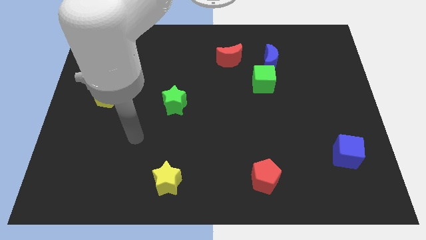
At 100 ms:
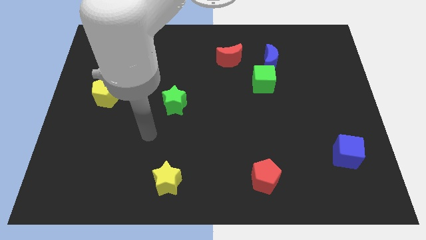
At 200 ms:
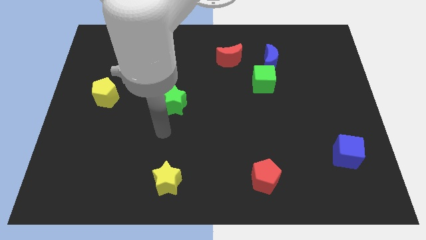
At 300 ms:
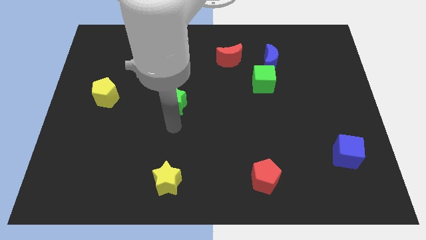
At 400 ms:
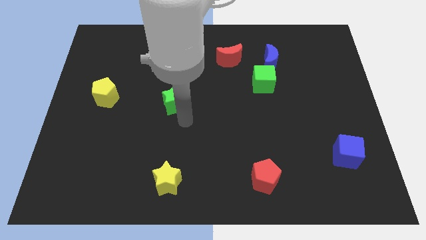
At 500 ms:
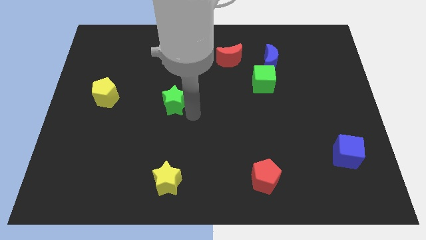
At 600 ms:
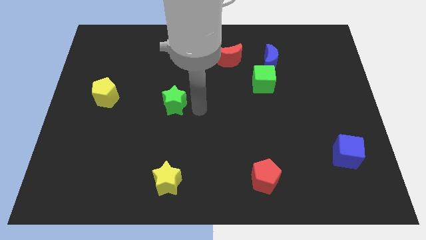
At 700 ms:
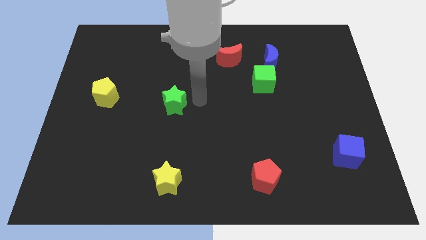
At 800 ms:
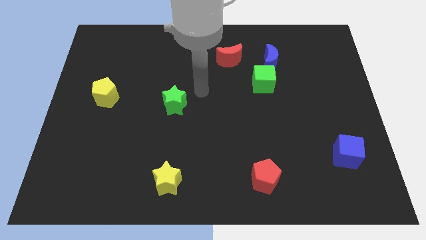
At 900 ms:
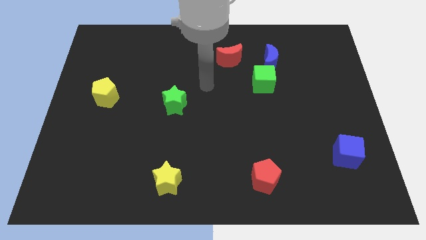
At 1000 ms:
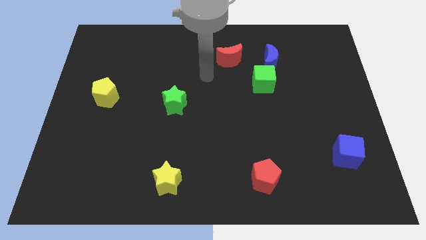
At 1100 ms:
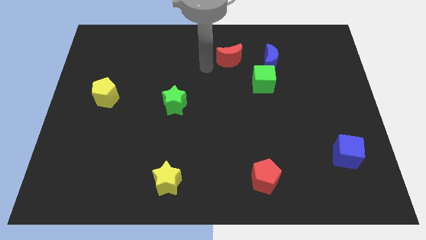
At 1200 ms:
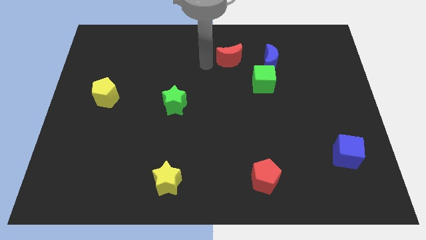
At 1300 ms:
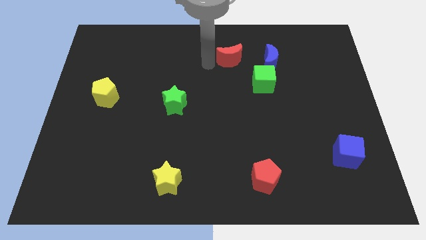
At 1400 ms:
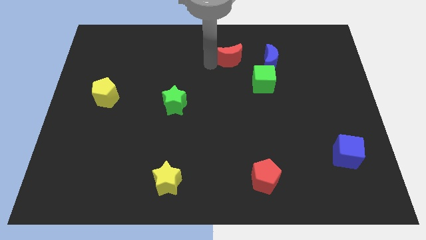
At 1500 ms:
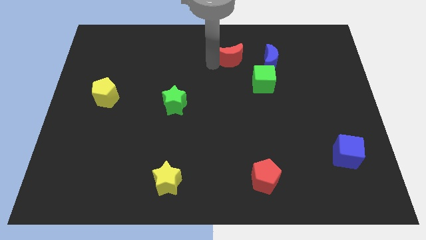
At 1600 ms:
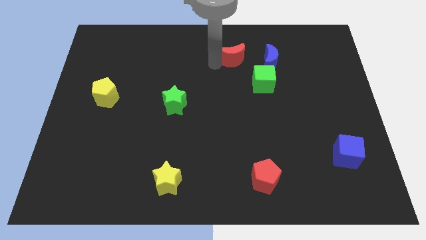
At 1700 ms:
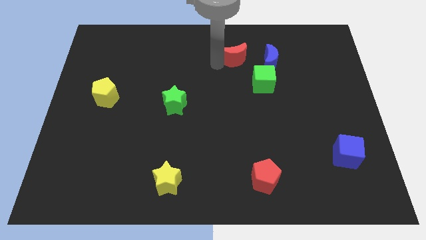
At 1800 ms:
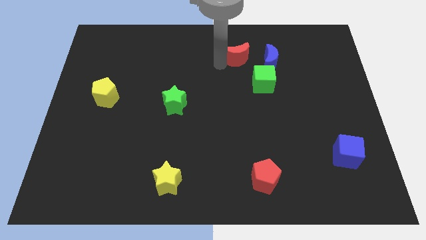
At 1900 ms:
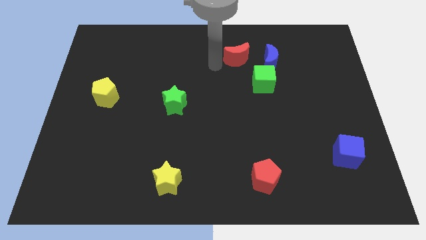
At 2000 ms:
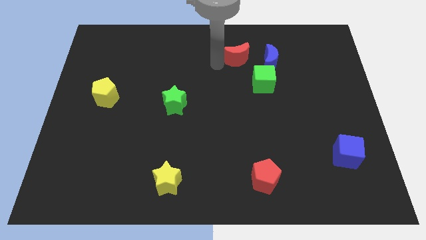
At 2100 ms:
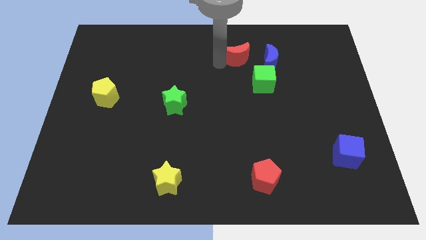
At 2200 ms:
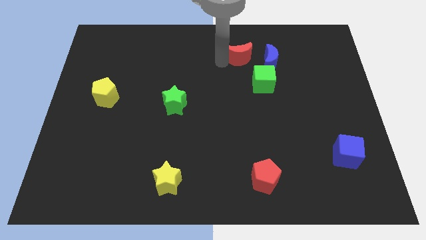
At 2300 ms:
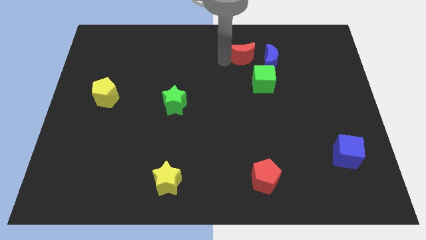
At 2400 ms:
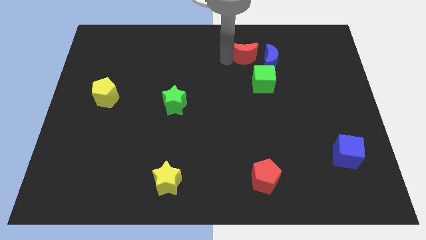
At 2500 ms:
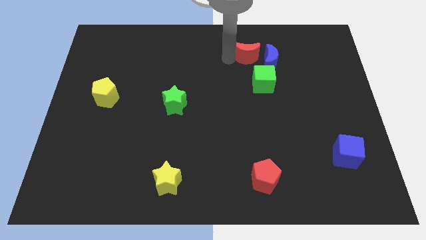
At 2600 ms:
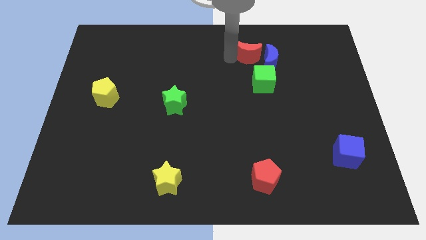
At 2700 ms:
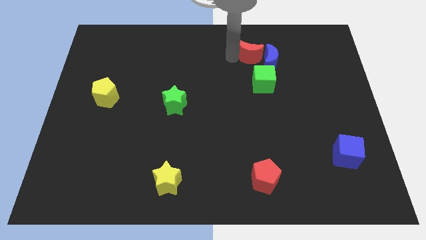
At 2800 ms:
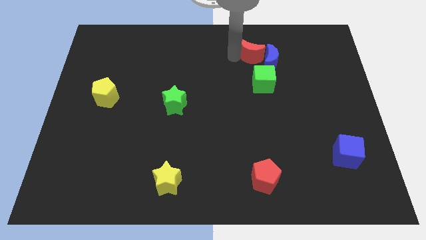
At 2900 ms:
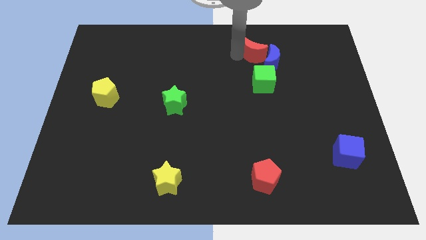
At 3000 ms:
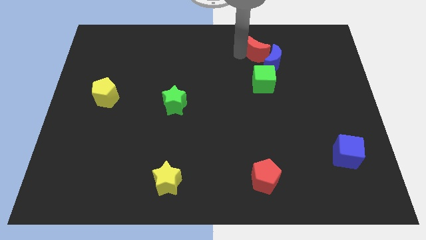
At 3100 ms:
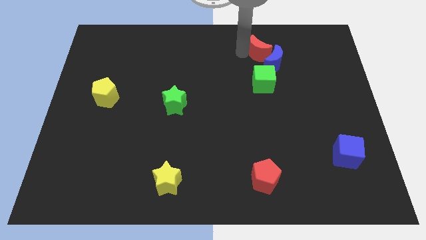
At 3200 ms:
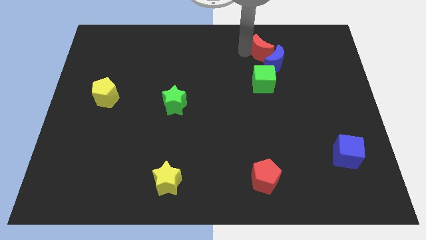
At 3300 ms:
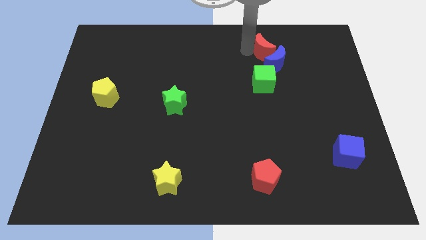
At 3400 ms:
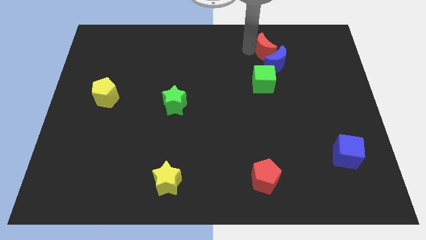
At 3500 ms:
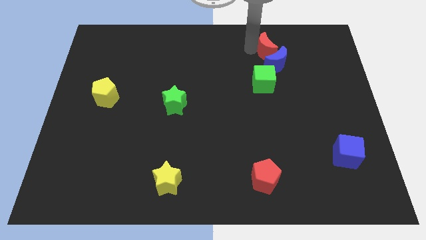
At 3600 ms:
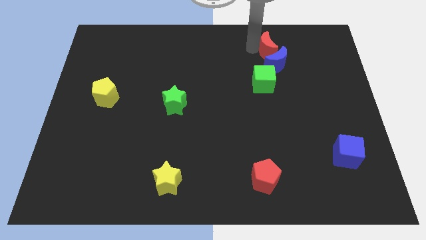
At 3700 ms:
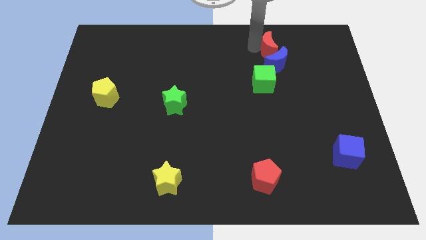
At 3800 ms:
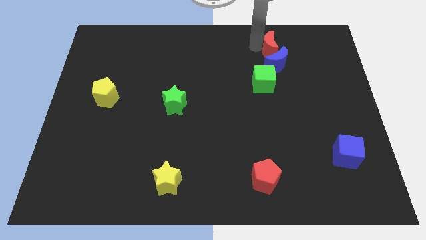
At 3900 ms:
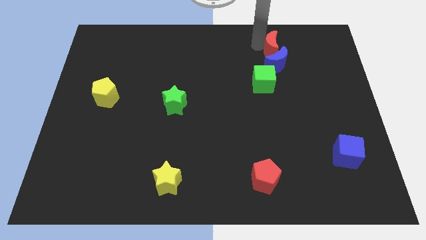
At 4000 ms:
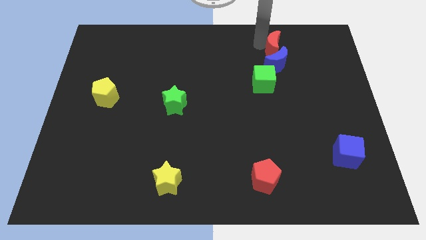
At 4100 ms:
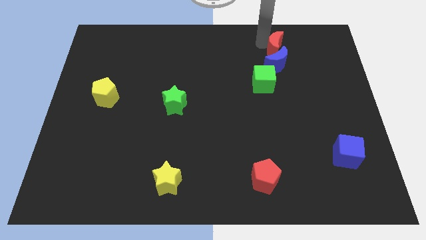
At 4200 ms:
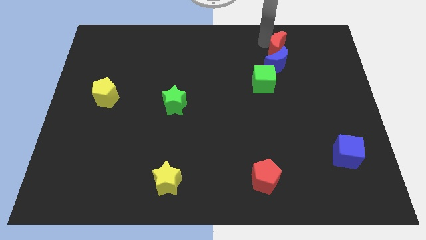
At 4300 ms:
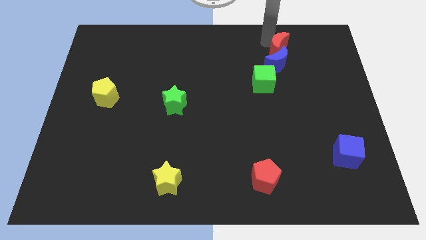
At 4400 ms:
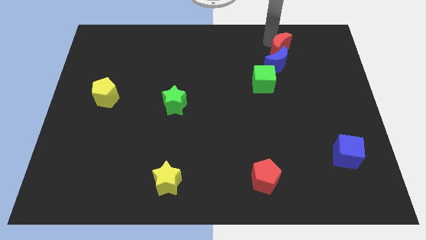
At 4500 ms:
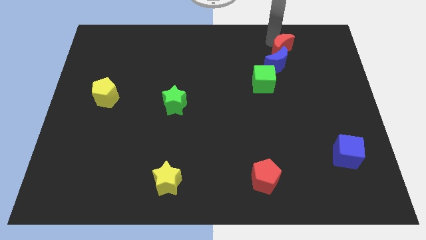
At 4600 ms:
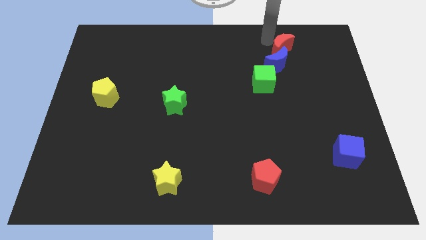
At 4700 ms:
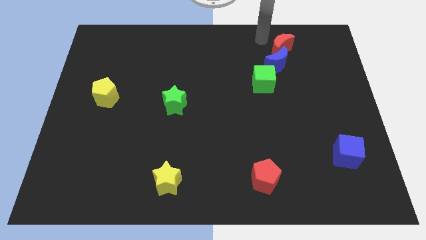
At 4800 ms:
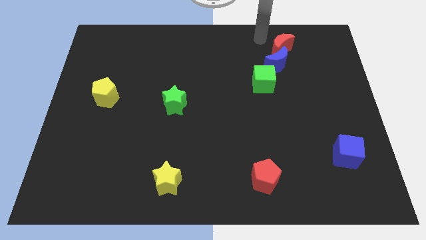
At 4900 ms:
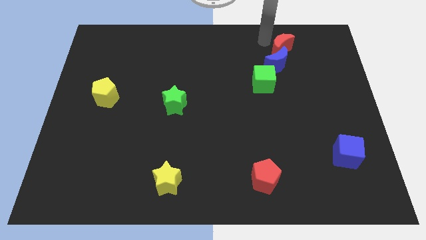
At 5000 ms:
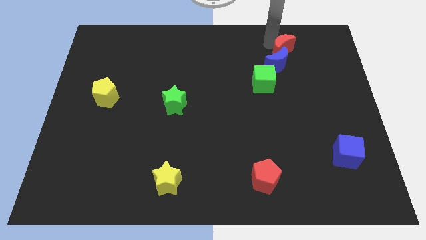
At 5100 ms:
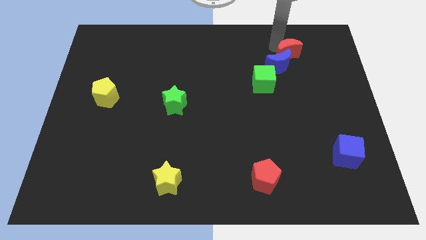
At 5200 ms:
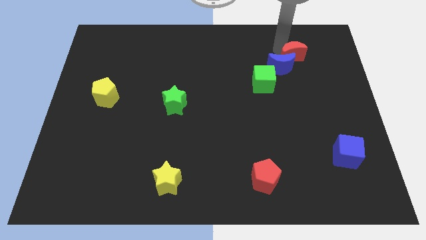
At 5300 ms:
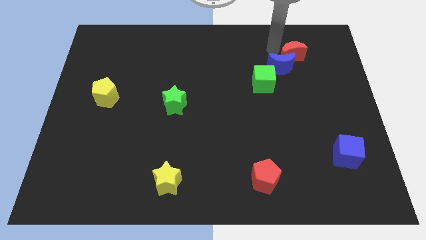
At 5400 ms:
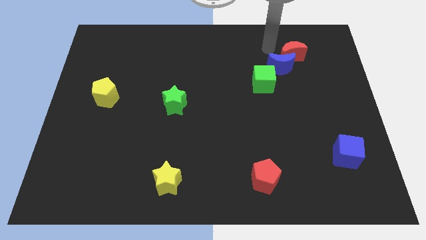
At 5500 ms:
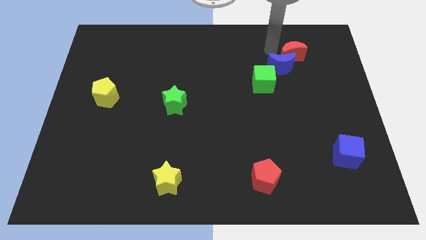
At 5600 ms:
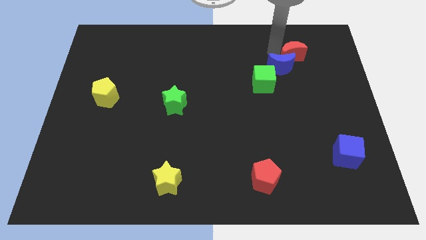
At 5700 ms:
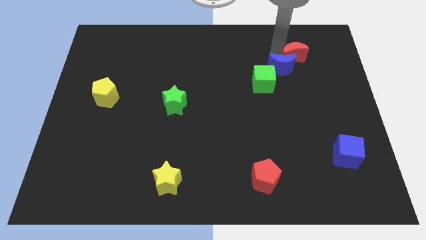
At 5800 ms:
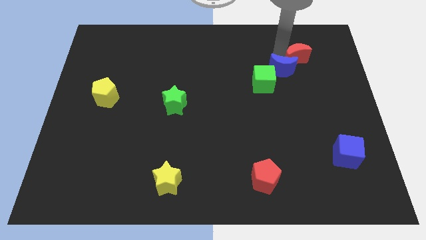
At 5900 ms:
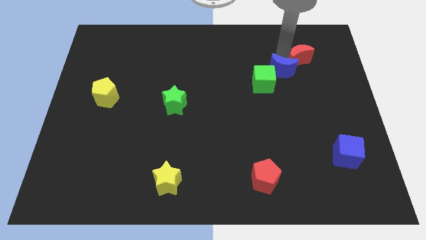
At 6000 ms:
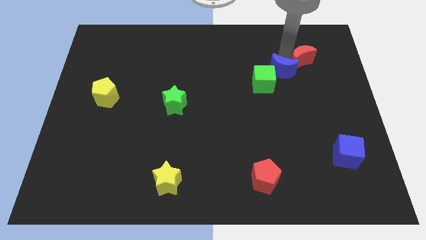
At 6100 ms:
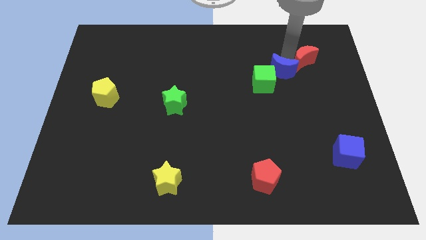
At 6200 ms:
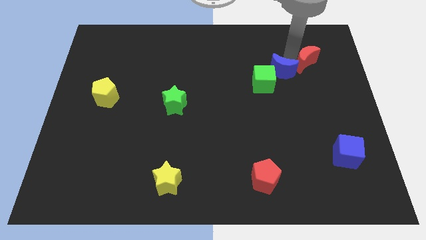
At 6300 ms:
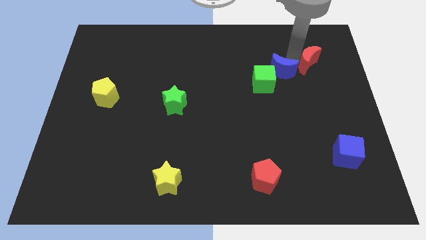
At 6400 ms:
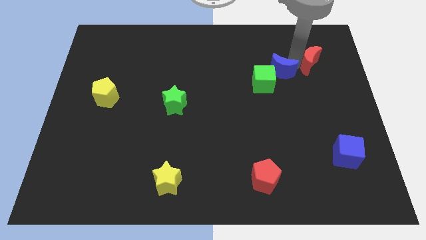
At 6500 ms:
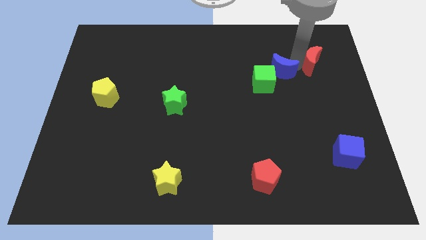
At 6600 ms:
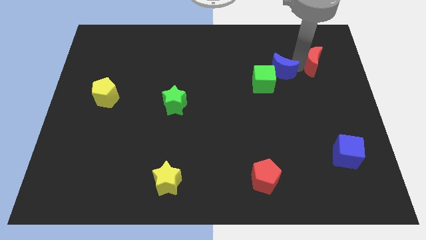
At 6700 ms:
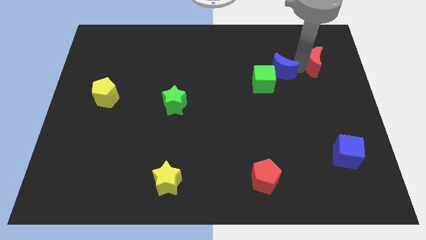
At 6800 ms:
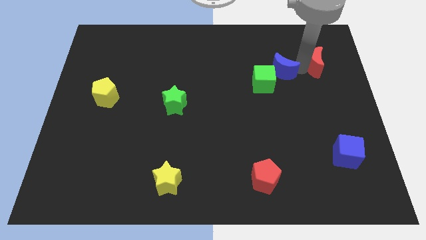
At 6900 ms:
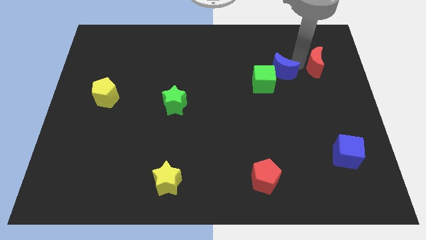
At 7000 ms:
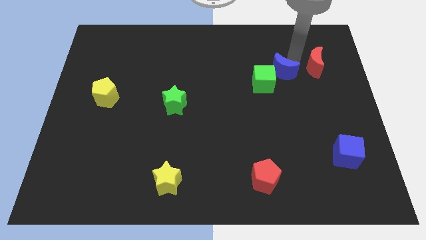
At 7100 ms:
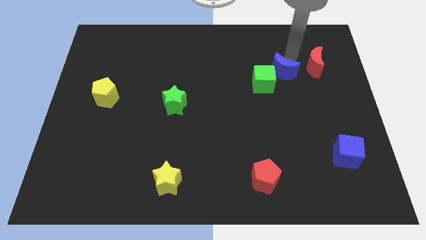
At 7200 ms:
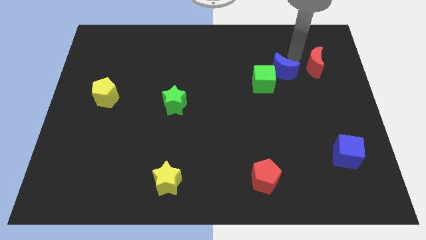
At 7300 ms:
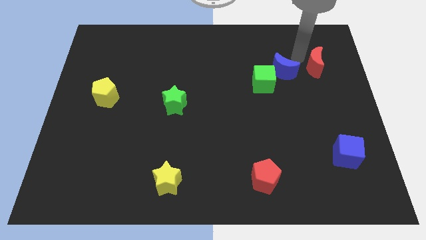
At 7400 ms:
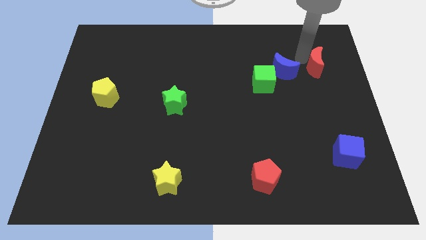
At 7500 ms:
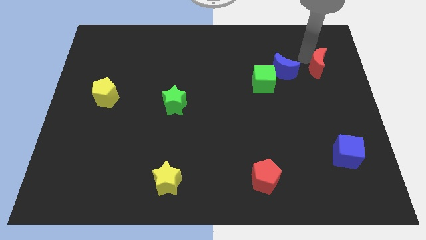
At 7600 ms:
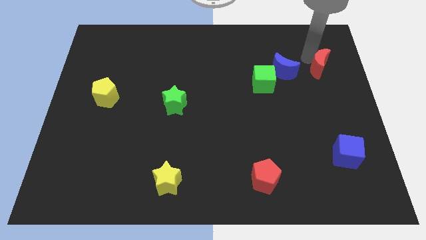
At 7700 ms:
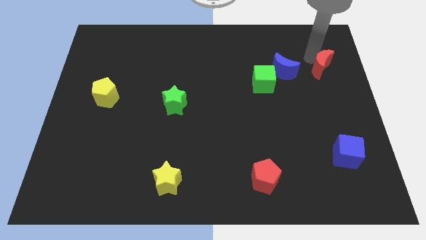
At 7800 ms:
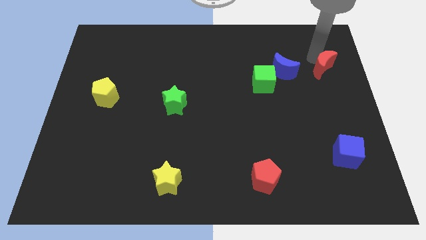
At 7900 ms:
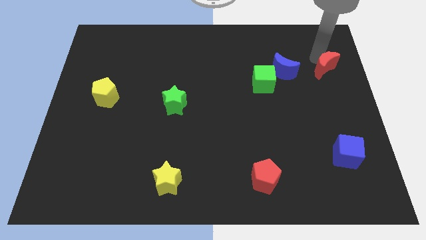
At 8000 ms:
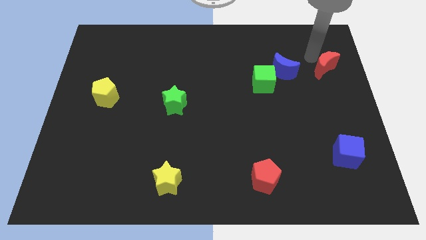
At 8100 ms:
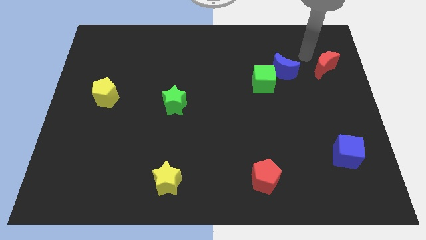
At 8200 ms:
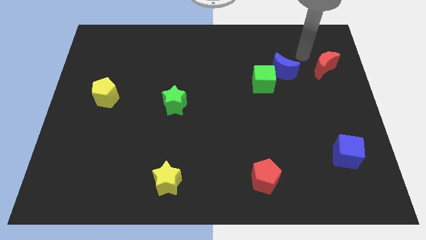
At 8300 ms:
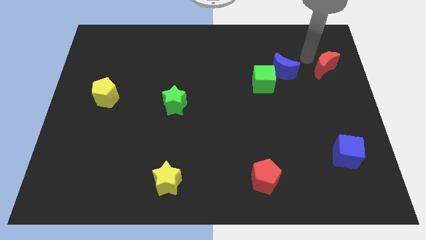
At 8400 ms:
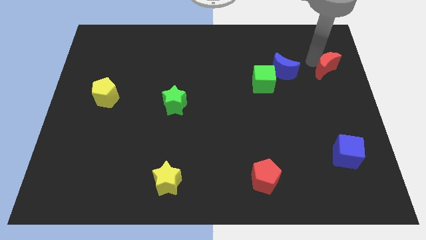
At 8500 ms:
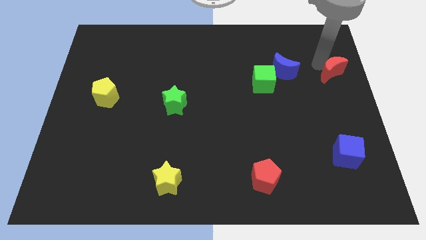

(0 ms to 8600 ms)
put the red moon to the right side
